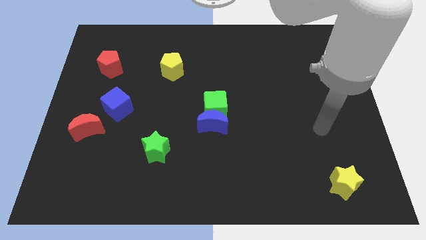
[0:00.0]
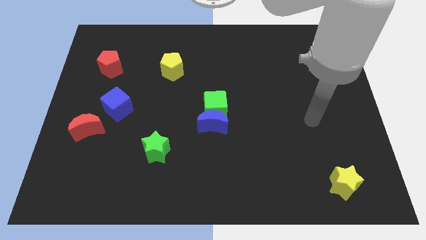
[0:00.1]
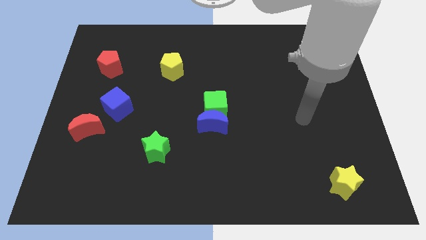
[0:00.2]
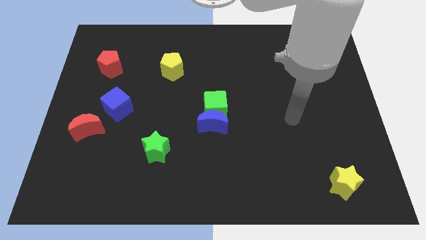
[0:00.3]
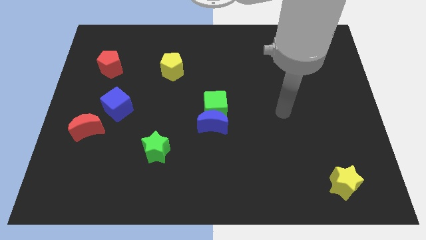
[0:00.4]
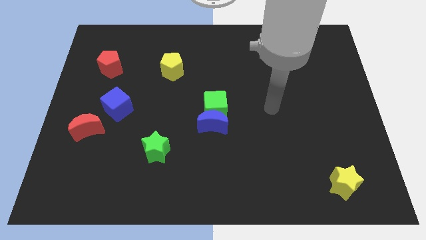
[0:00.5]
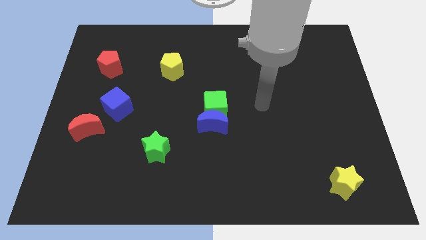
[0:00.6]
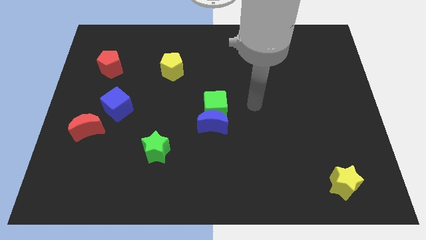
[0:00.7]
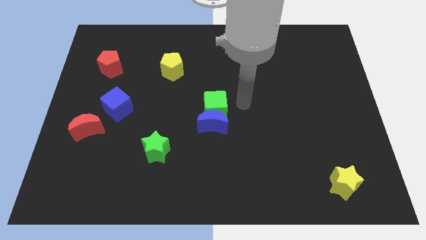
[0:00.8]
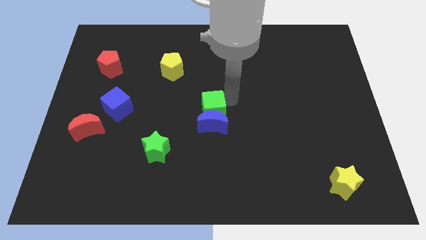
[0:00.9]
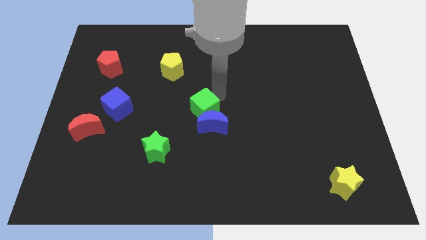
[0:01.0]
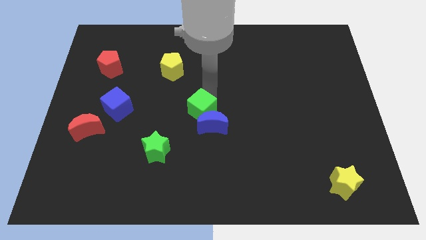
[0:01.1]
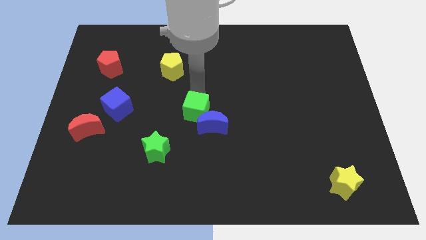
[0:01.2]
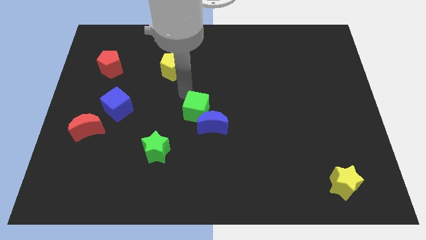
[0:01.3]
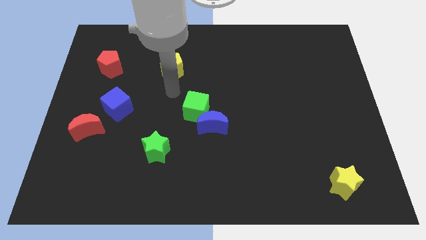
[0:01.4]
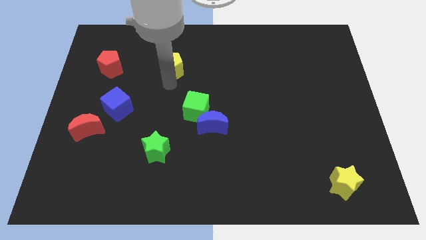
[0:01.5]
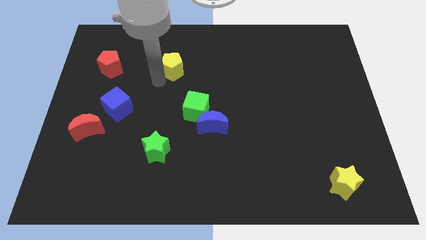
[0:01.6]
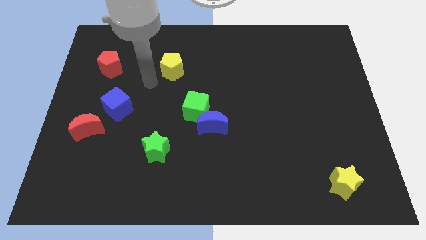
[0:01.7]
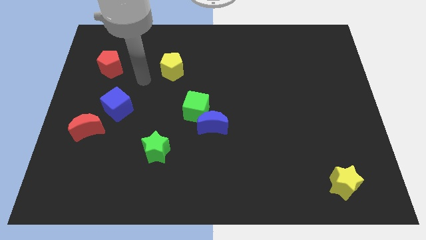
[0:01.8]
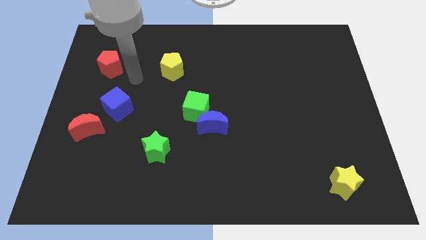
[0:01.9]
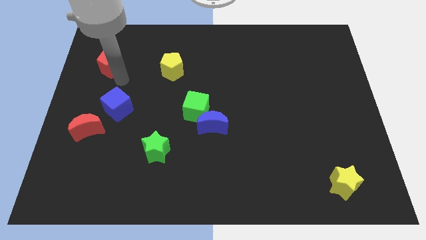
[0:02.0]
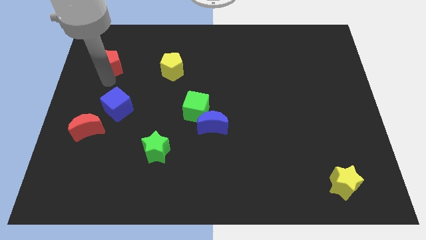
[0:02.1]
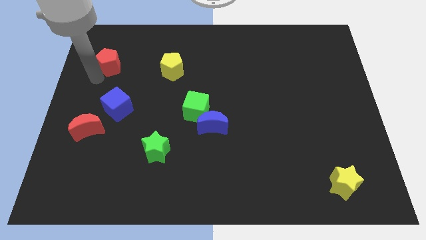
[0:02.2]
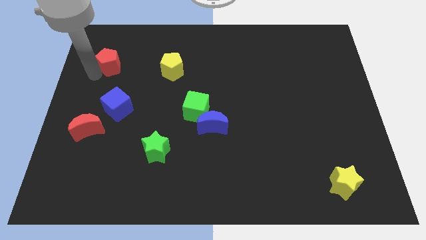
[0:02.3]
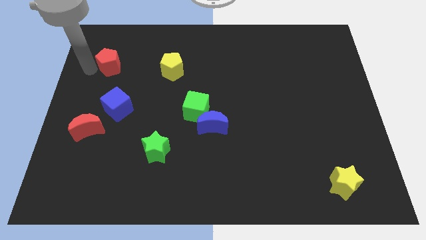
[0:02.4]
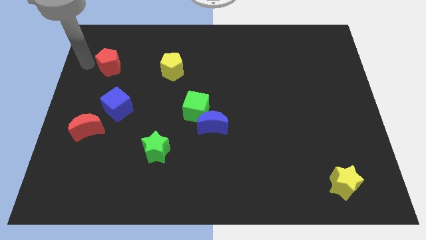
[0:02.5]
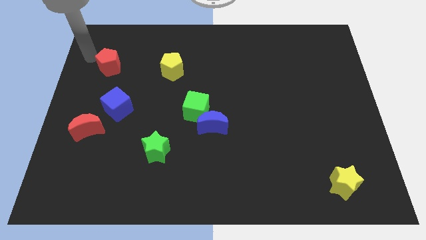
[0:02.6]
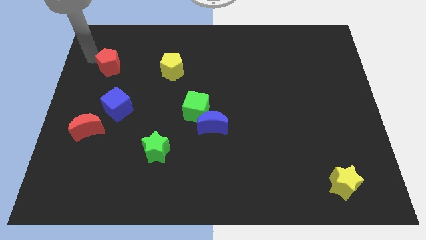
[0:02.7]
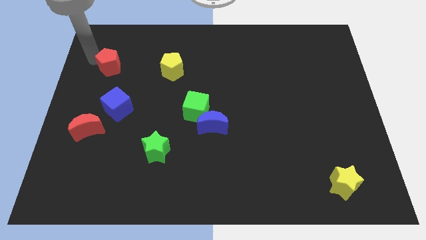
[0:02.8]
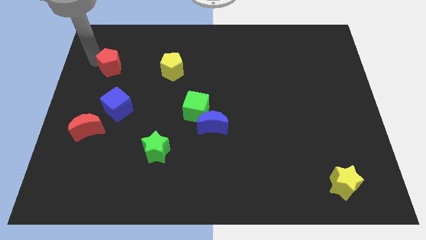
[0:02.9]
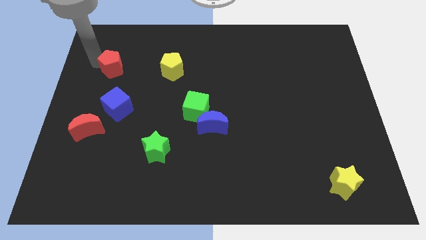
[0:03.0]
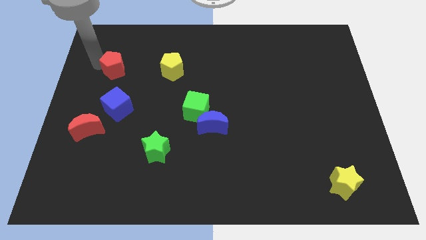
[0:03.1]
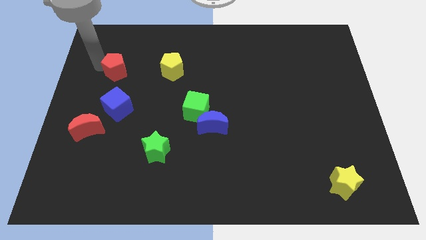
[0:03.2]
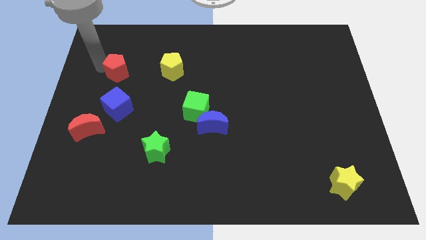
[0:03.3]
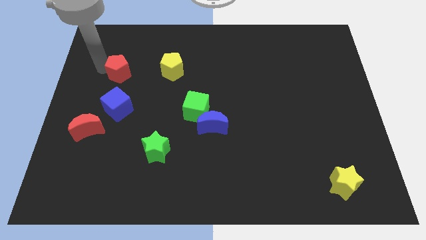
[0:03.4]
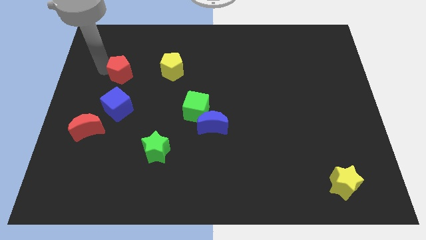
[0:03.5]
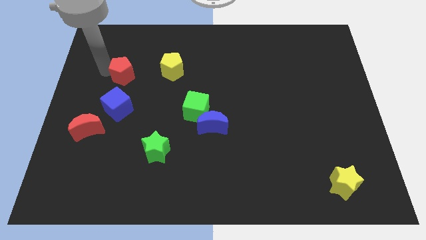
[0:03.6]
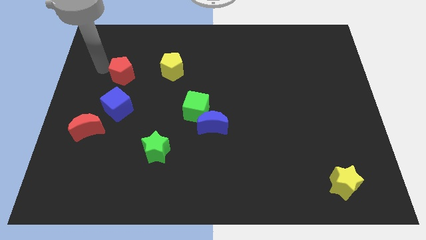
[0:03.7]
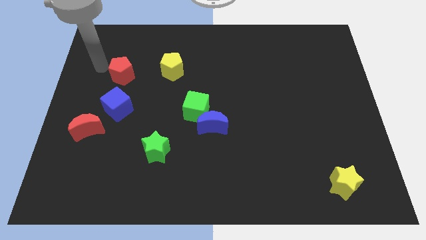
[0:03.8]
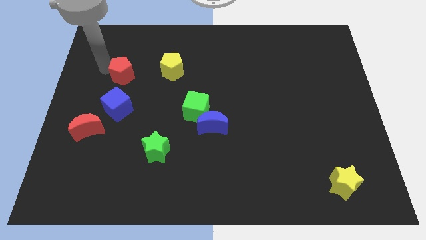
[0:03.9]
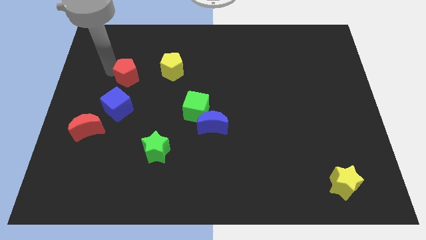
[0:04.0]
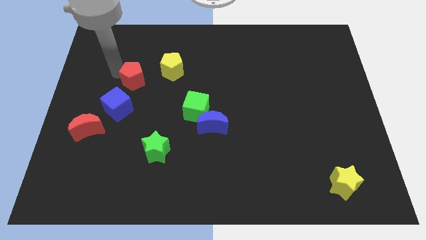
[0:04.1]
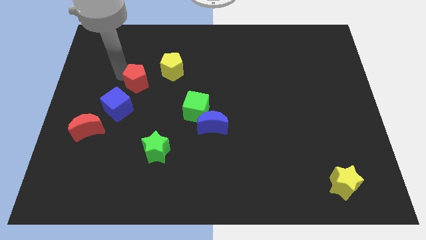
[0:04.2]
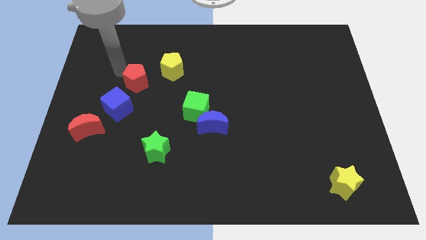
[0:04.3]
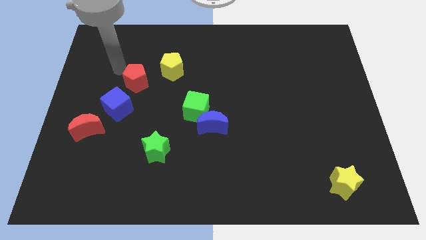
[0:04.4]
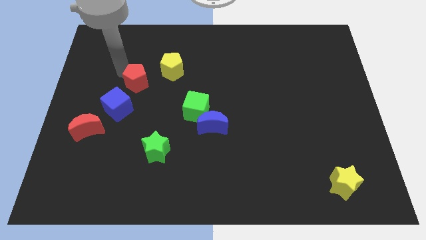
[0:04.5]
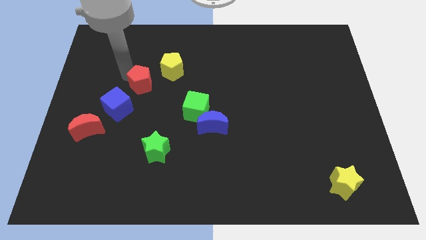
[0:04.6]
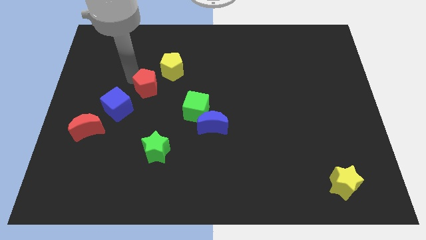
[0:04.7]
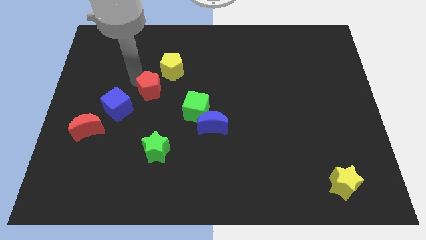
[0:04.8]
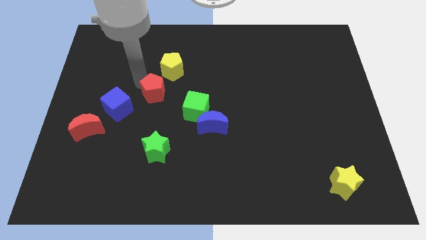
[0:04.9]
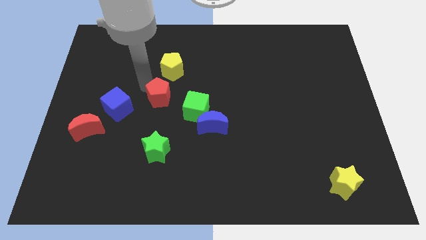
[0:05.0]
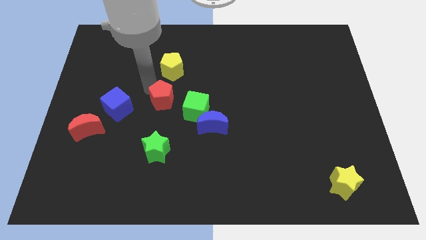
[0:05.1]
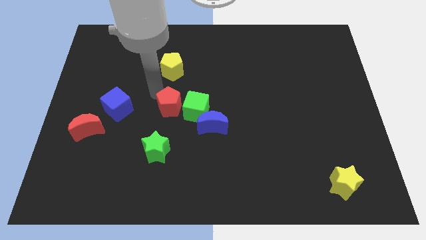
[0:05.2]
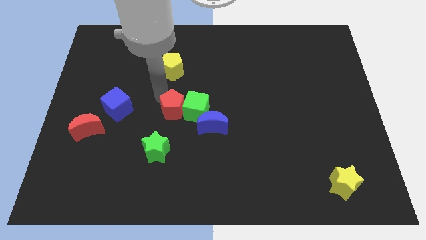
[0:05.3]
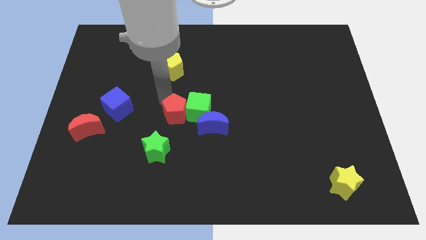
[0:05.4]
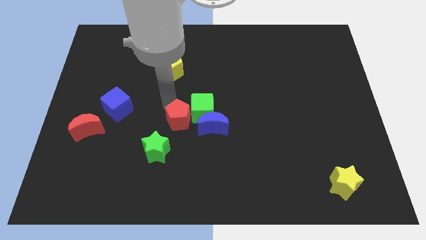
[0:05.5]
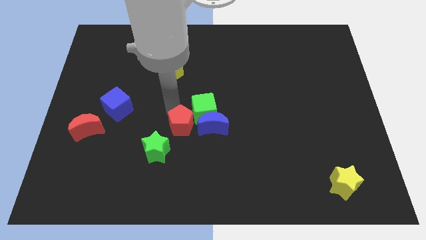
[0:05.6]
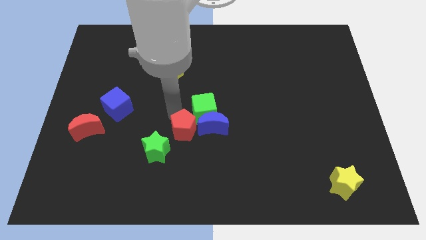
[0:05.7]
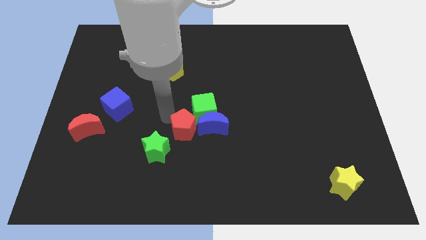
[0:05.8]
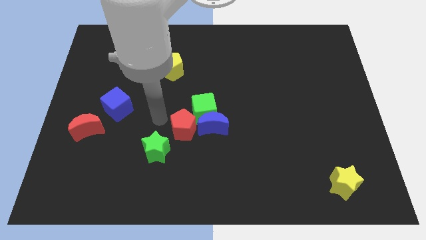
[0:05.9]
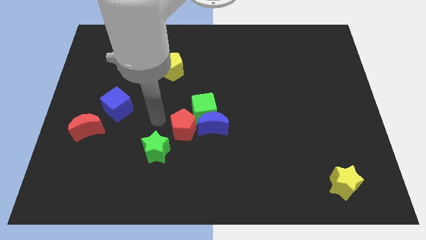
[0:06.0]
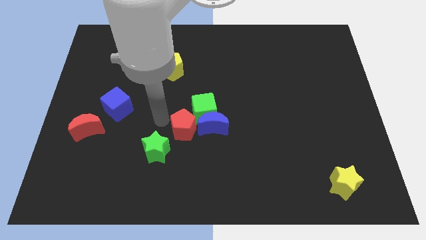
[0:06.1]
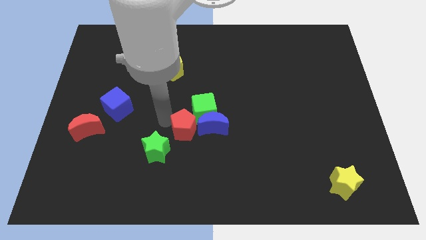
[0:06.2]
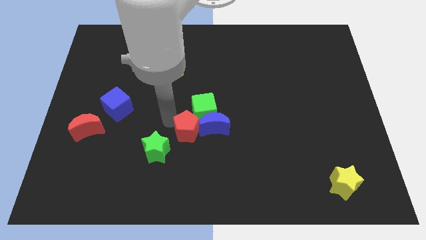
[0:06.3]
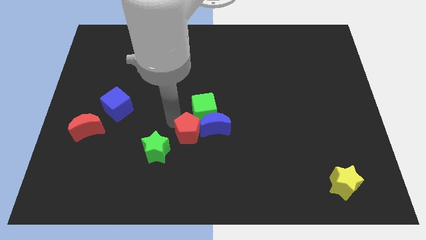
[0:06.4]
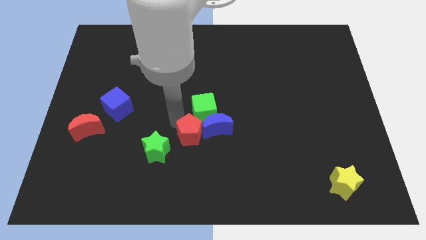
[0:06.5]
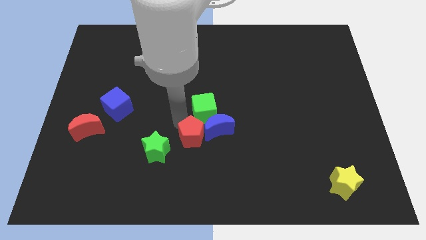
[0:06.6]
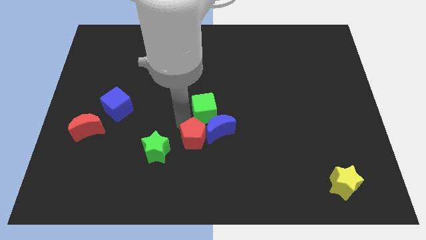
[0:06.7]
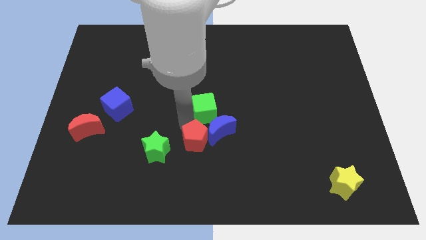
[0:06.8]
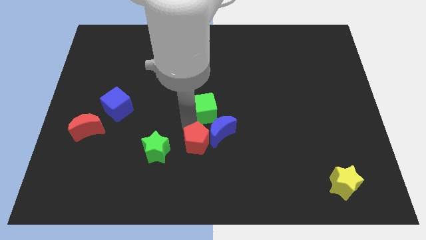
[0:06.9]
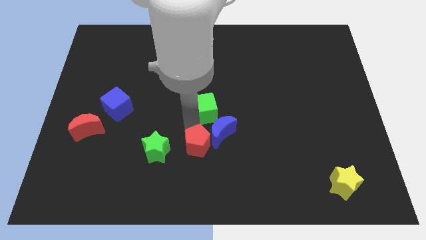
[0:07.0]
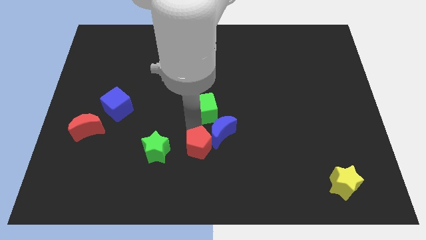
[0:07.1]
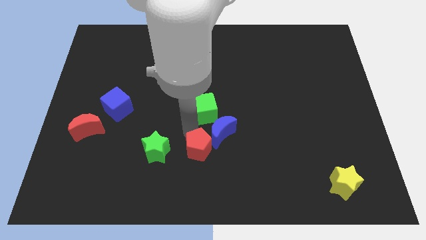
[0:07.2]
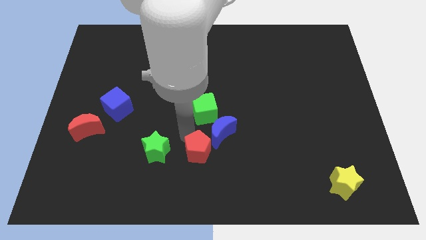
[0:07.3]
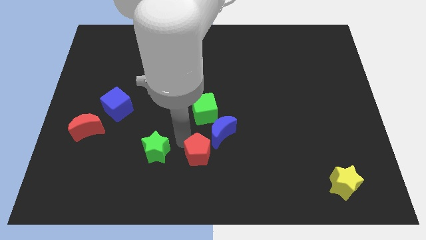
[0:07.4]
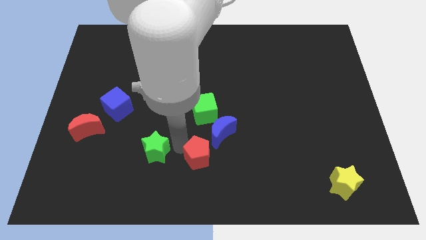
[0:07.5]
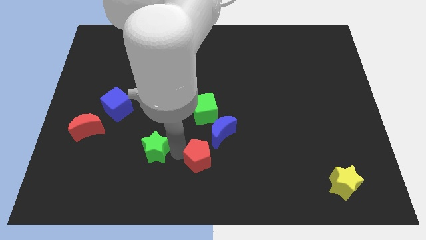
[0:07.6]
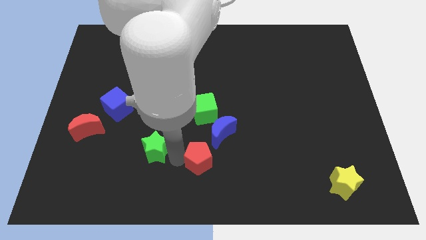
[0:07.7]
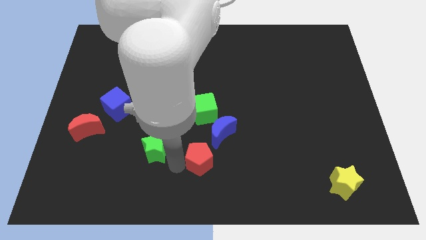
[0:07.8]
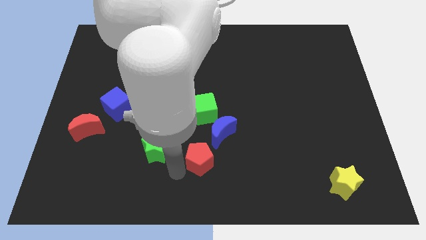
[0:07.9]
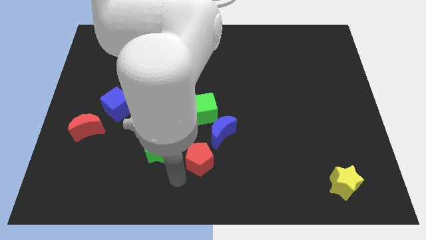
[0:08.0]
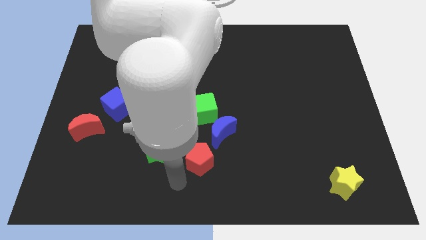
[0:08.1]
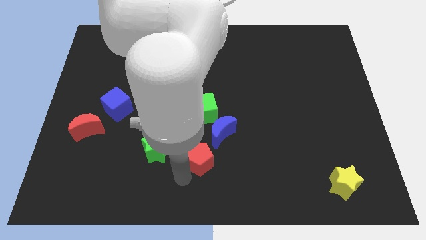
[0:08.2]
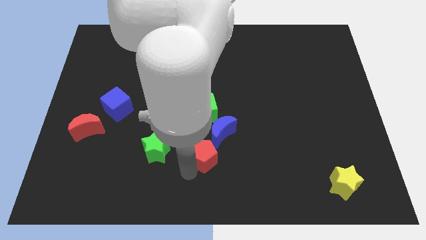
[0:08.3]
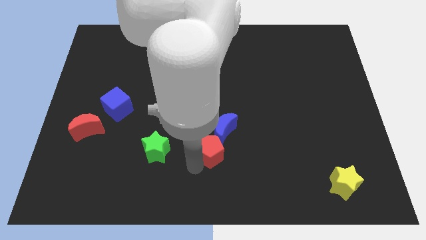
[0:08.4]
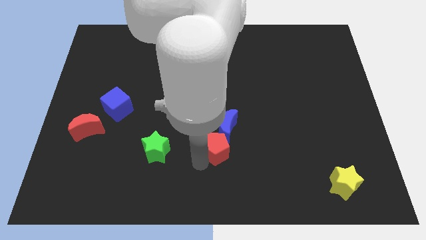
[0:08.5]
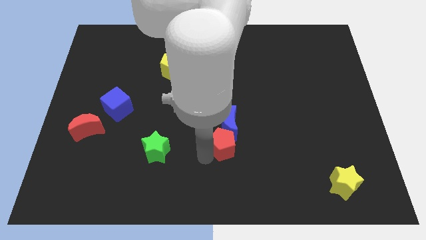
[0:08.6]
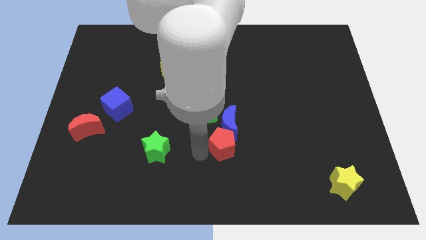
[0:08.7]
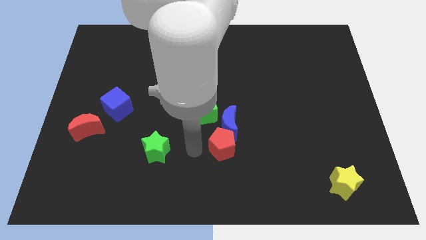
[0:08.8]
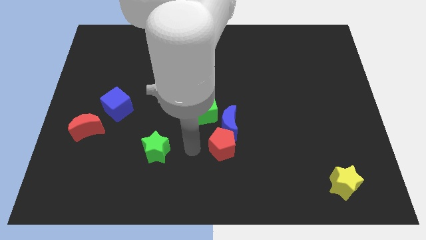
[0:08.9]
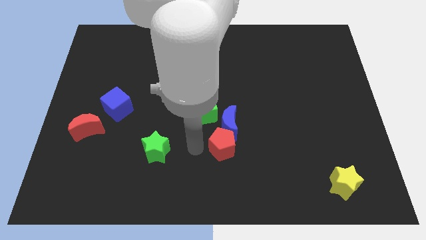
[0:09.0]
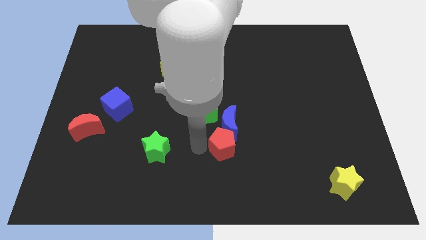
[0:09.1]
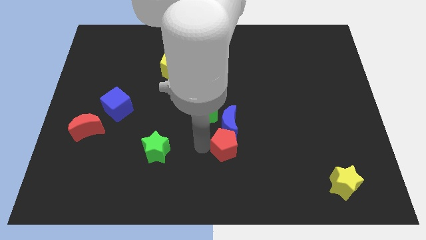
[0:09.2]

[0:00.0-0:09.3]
push the red pentagon to the bottom right of the blue moon
